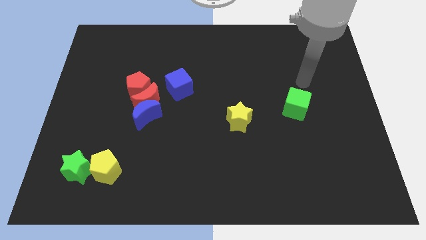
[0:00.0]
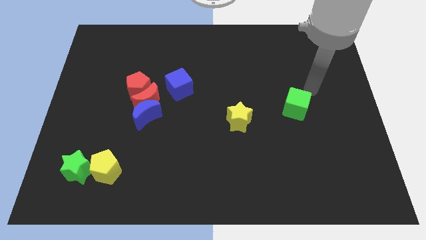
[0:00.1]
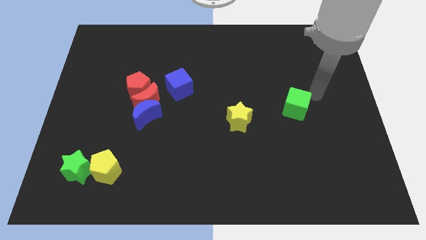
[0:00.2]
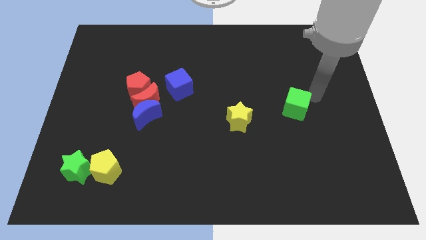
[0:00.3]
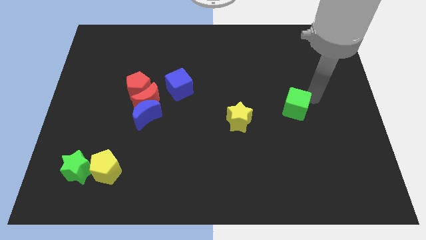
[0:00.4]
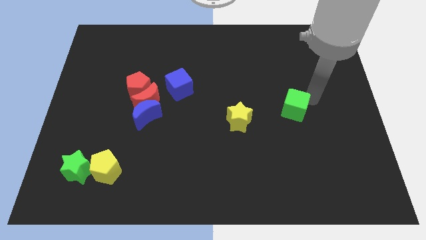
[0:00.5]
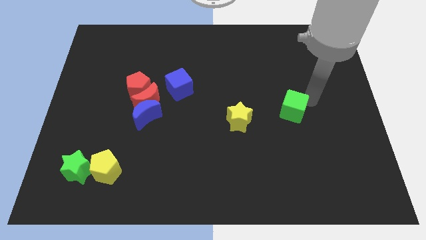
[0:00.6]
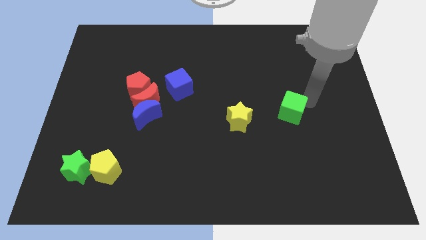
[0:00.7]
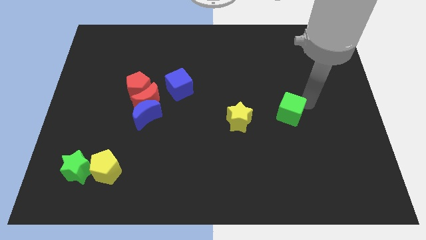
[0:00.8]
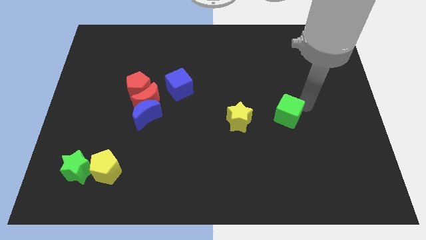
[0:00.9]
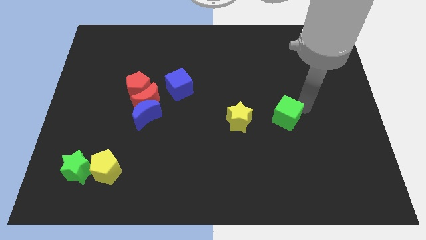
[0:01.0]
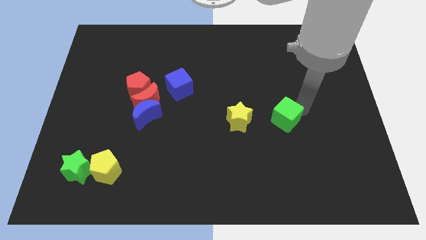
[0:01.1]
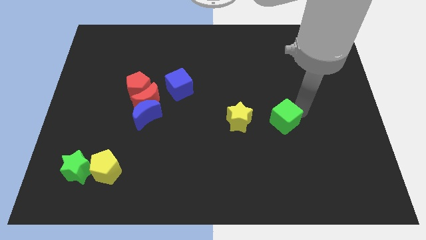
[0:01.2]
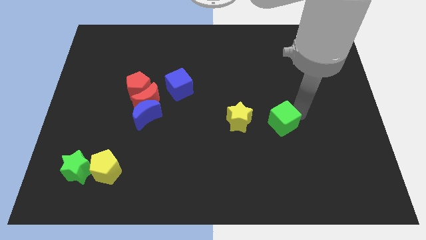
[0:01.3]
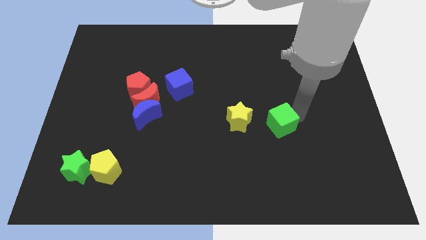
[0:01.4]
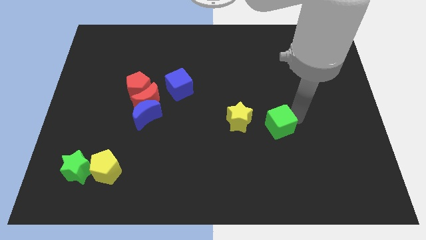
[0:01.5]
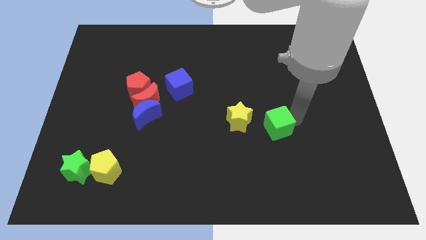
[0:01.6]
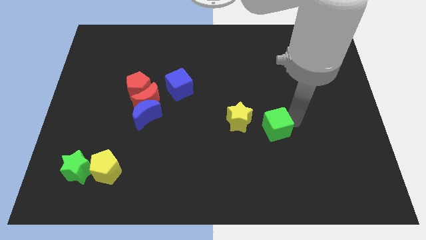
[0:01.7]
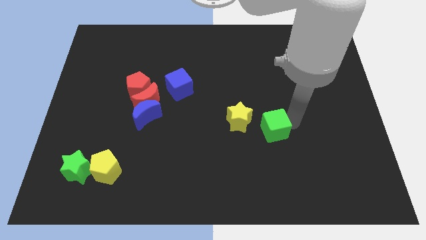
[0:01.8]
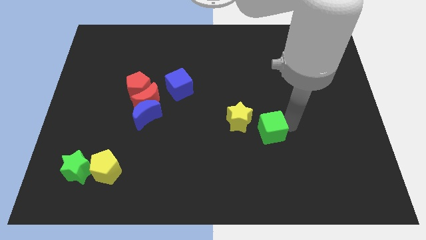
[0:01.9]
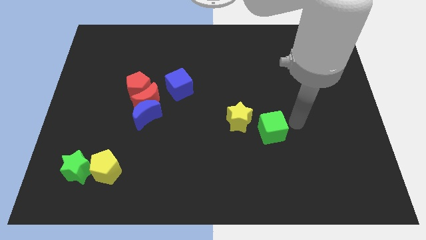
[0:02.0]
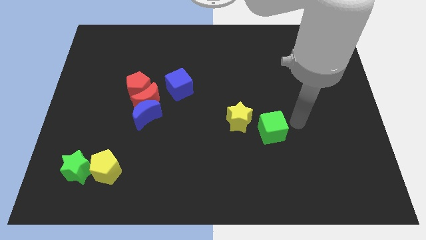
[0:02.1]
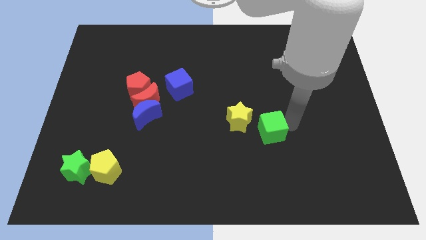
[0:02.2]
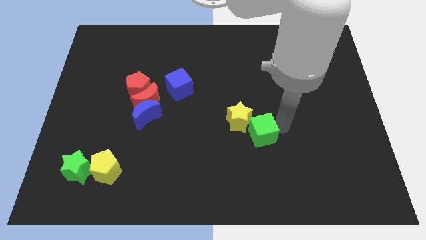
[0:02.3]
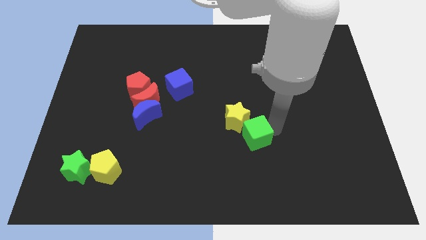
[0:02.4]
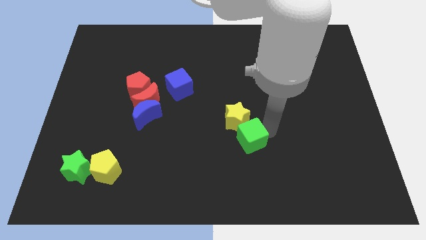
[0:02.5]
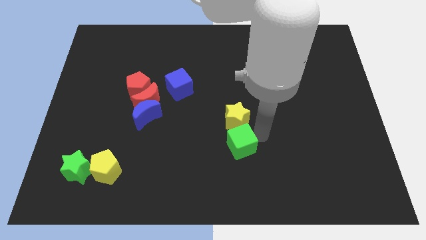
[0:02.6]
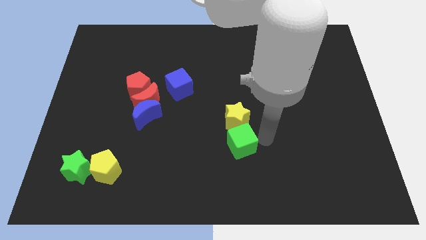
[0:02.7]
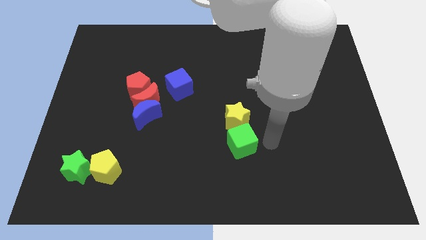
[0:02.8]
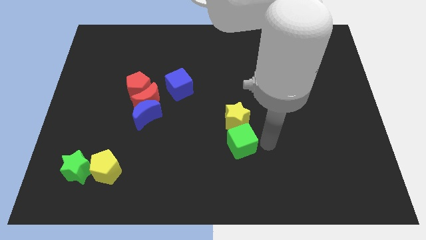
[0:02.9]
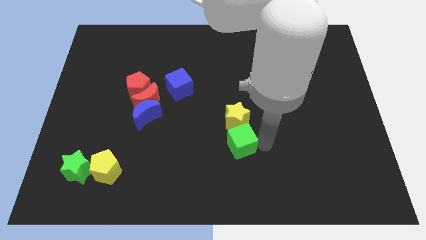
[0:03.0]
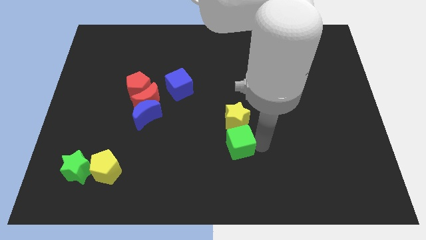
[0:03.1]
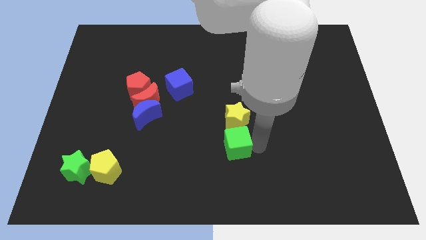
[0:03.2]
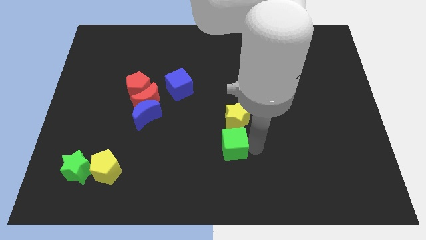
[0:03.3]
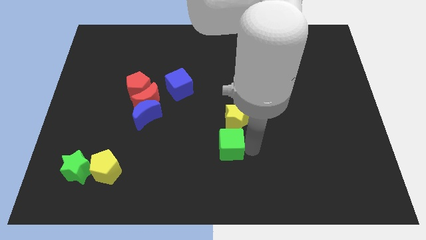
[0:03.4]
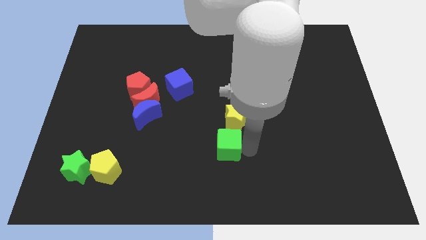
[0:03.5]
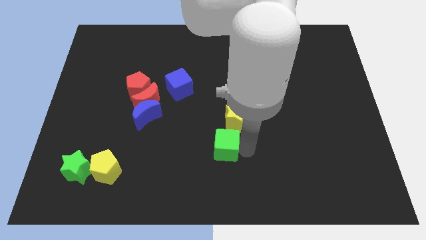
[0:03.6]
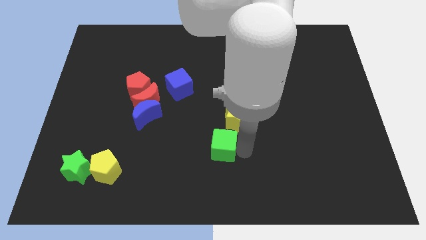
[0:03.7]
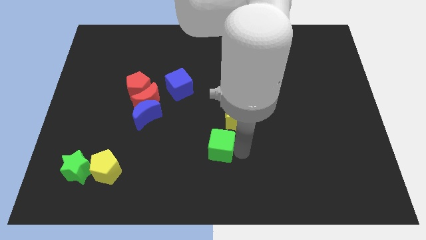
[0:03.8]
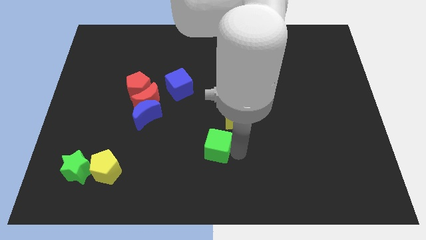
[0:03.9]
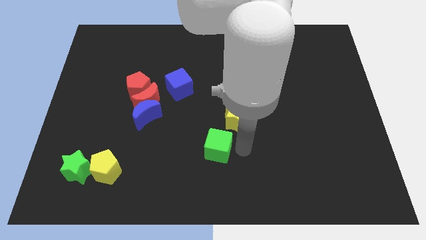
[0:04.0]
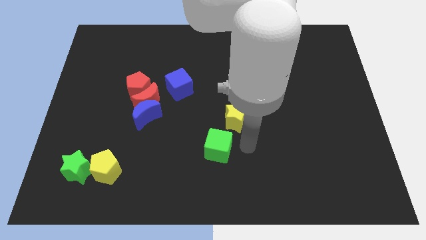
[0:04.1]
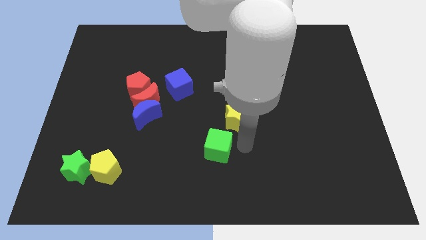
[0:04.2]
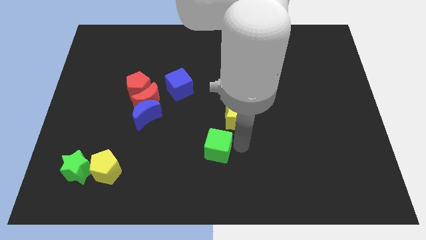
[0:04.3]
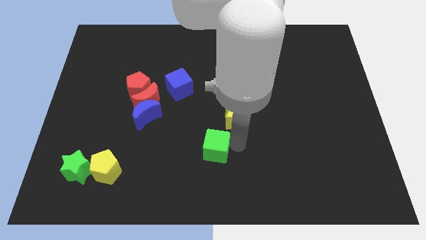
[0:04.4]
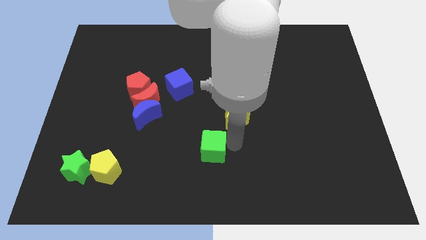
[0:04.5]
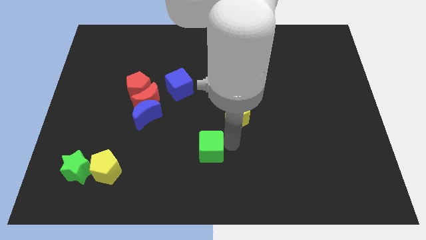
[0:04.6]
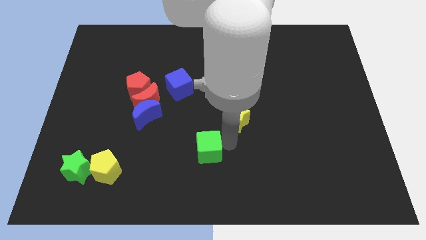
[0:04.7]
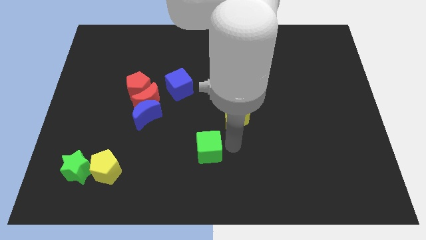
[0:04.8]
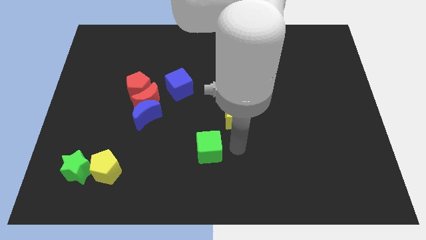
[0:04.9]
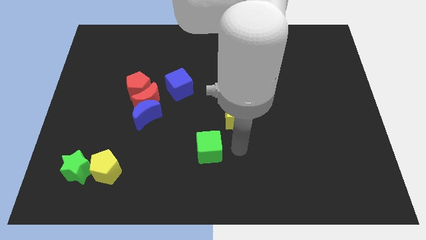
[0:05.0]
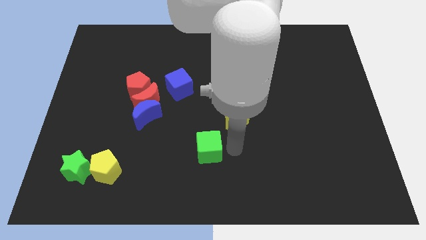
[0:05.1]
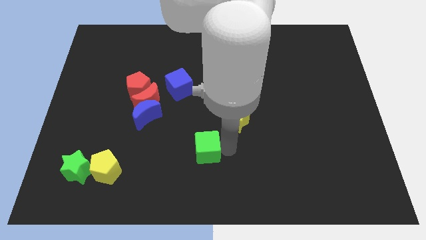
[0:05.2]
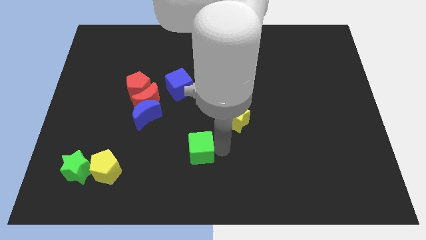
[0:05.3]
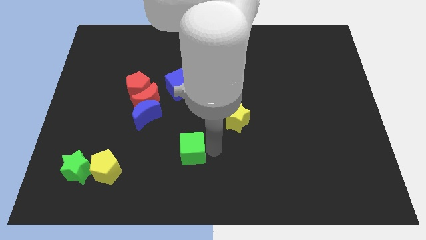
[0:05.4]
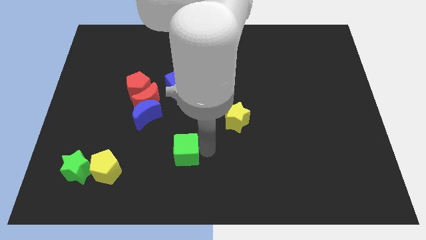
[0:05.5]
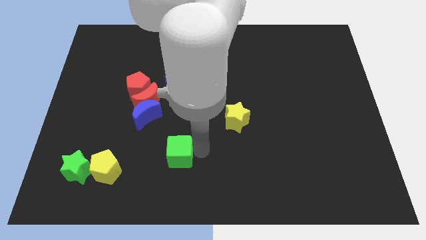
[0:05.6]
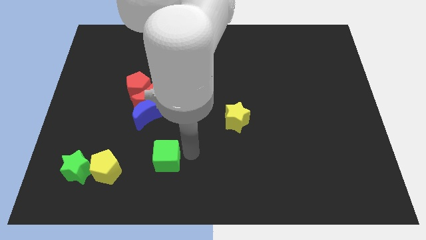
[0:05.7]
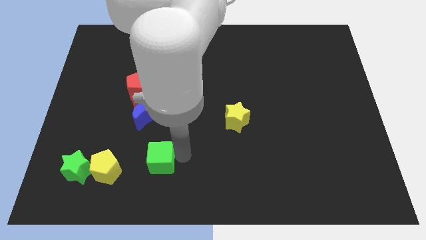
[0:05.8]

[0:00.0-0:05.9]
move the green cube below the blue moon

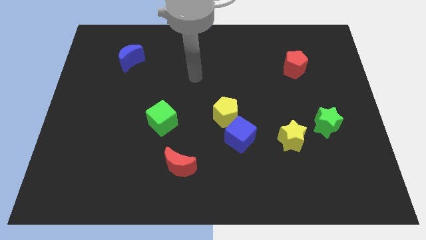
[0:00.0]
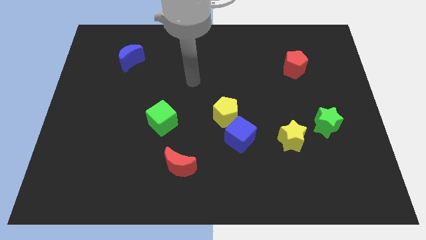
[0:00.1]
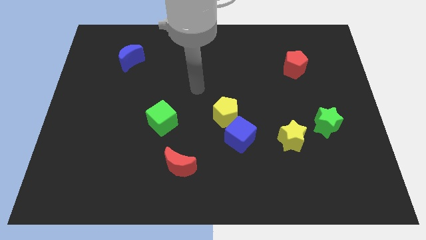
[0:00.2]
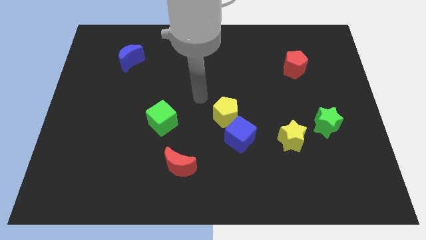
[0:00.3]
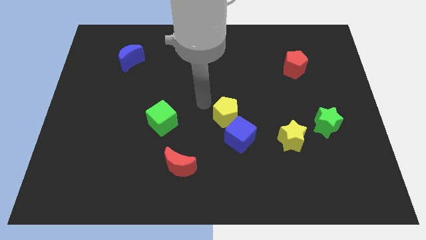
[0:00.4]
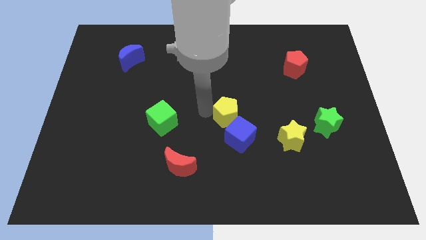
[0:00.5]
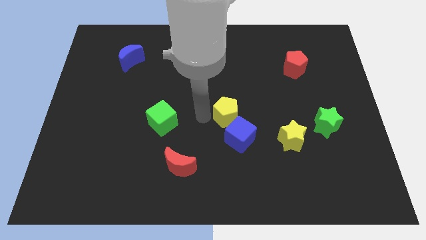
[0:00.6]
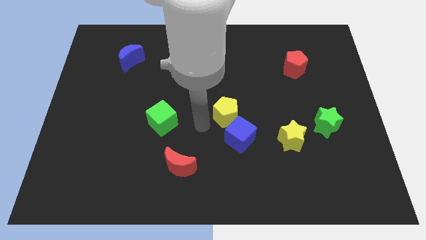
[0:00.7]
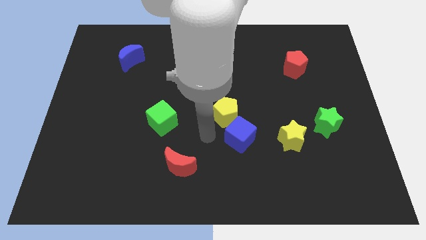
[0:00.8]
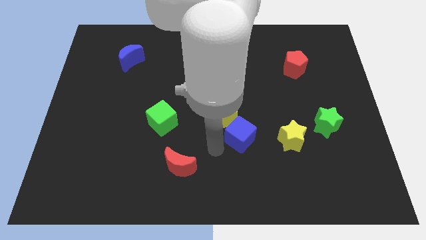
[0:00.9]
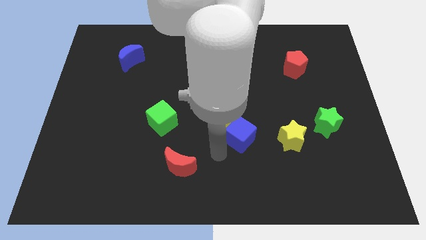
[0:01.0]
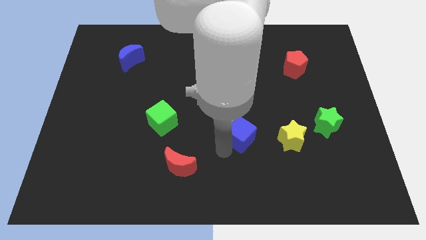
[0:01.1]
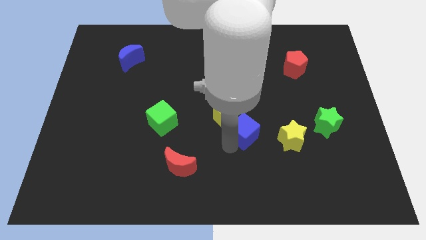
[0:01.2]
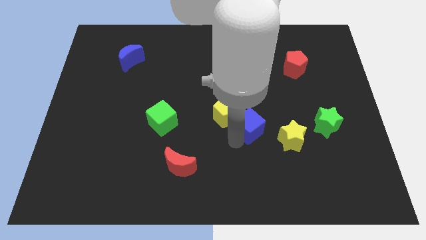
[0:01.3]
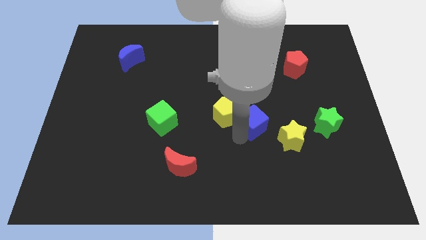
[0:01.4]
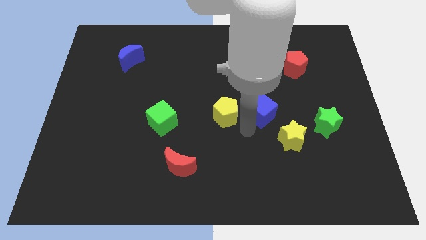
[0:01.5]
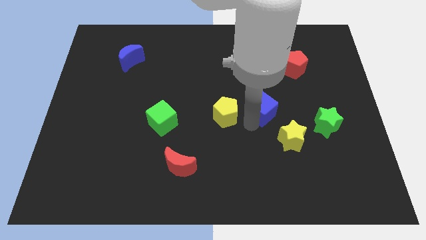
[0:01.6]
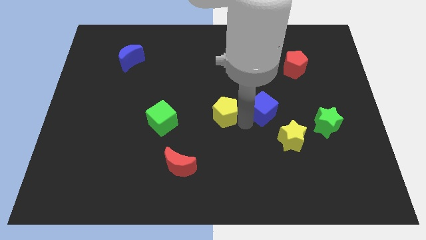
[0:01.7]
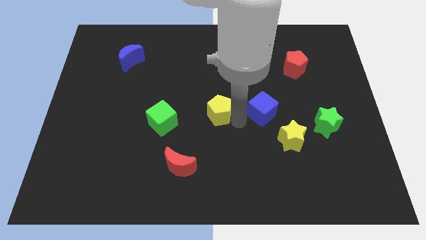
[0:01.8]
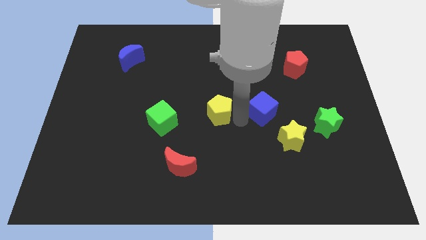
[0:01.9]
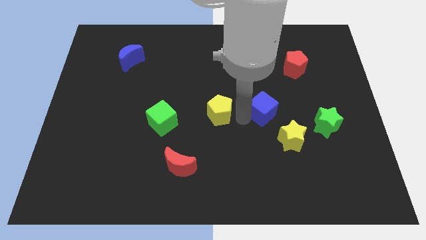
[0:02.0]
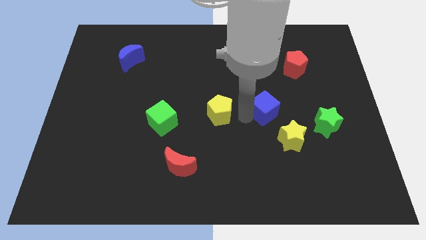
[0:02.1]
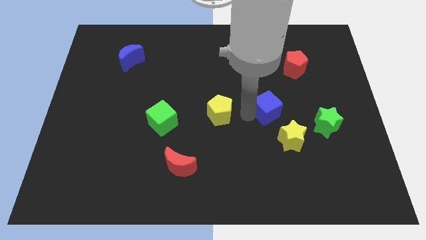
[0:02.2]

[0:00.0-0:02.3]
move the blue cube to the top side of the yellow star
